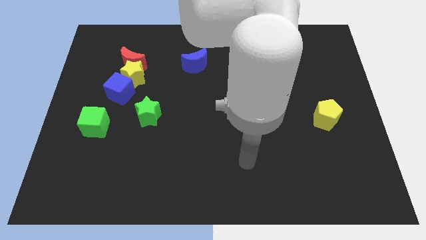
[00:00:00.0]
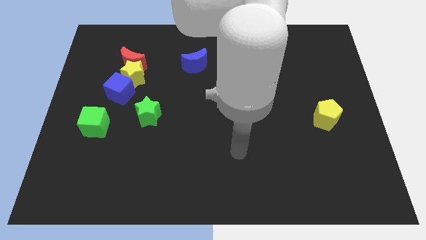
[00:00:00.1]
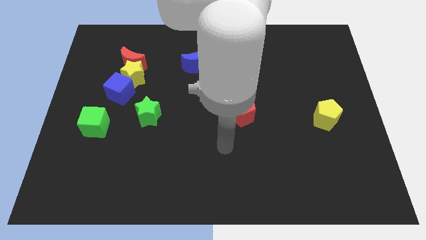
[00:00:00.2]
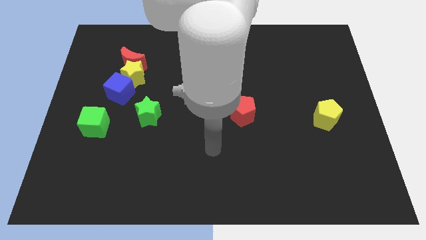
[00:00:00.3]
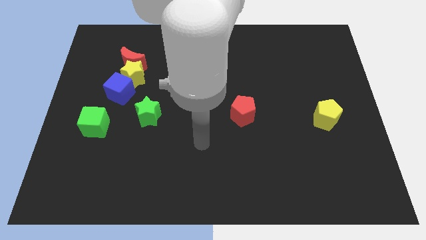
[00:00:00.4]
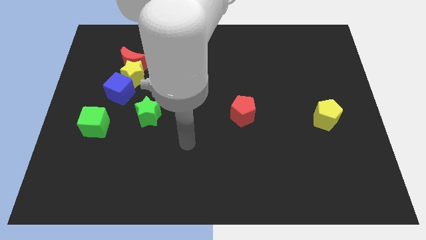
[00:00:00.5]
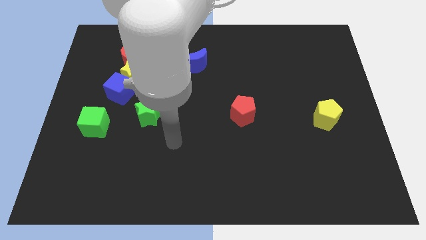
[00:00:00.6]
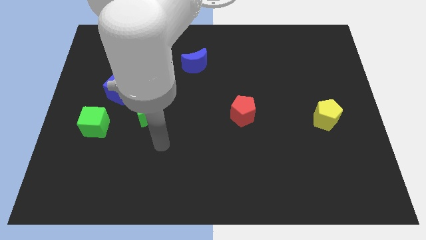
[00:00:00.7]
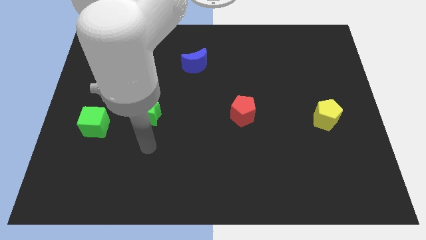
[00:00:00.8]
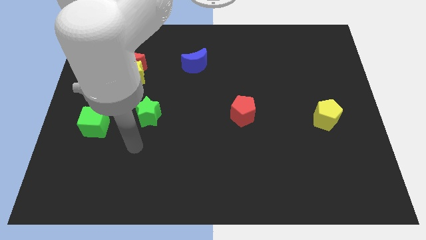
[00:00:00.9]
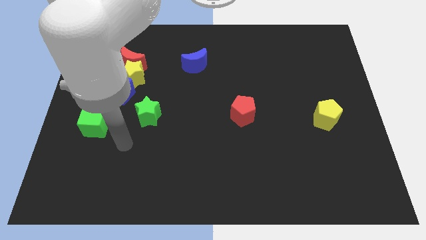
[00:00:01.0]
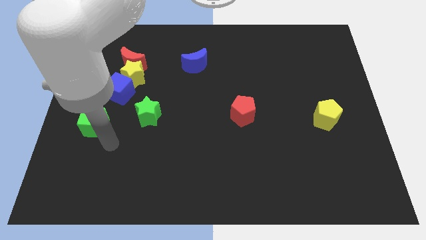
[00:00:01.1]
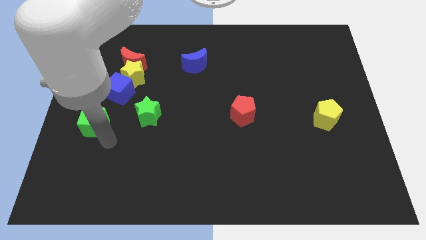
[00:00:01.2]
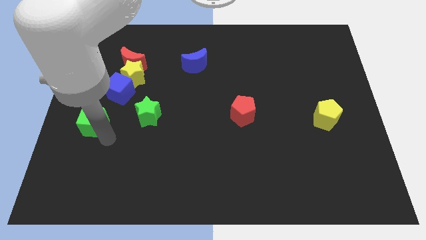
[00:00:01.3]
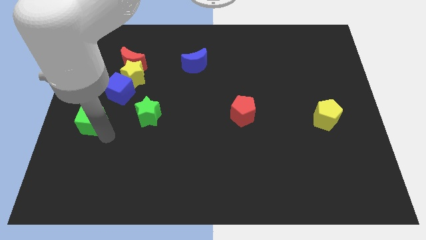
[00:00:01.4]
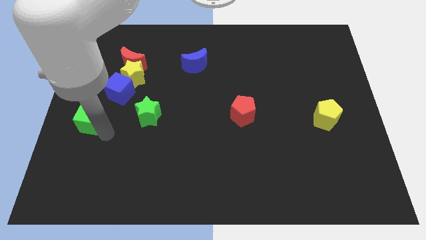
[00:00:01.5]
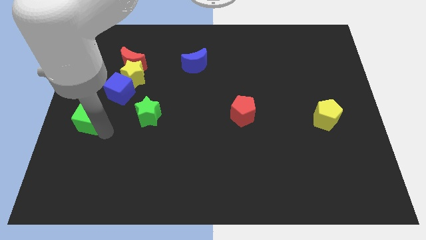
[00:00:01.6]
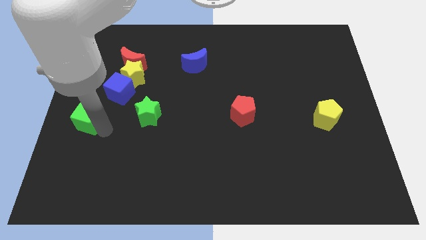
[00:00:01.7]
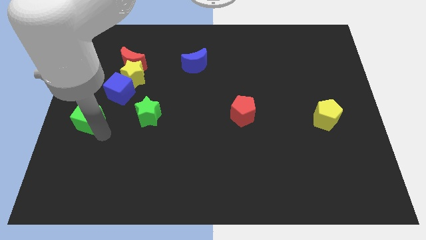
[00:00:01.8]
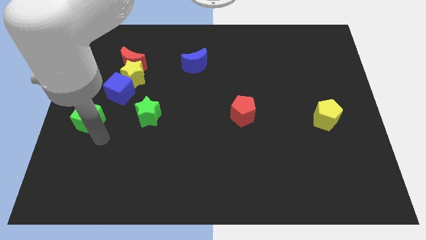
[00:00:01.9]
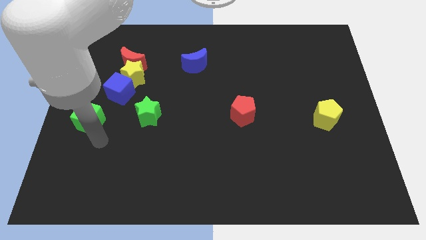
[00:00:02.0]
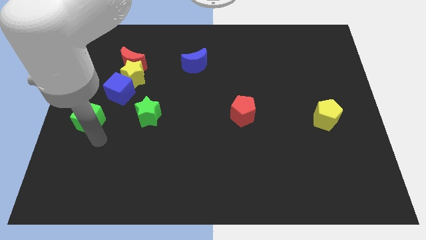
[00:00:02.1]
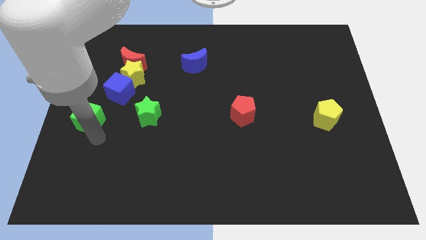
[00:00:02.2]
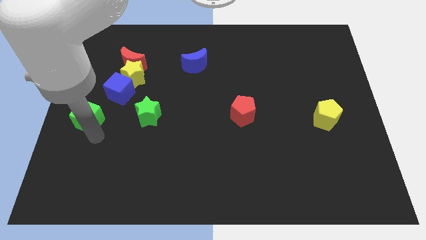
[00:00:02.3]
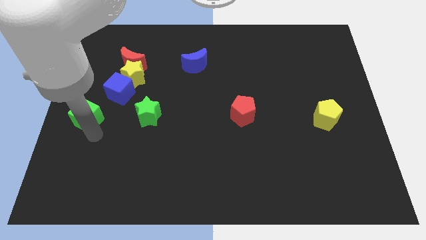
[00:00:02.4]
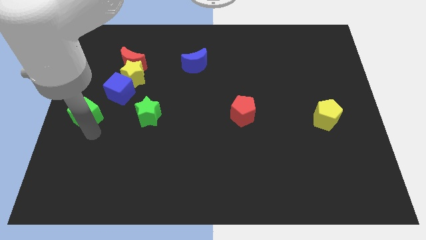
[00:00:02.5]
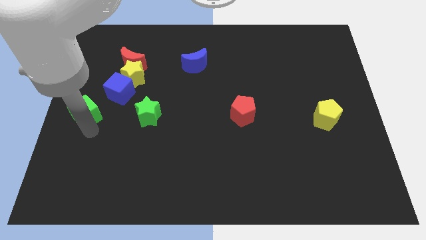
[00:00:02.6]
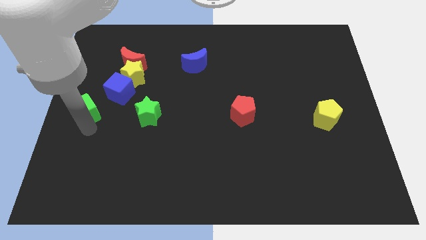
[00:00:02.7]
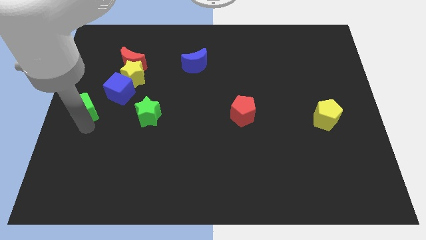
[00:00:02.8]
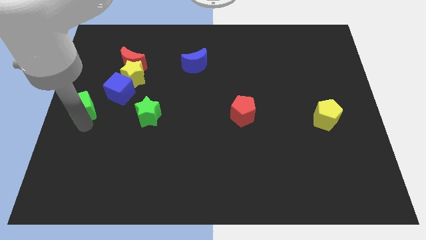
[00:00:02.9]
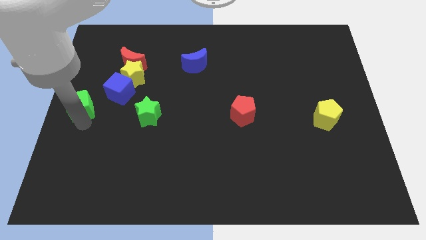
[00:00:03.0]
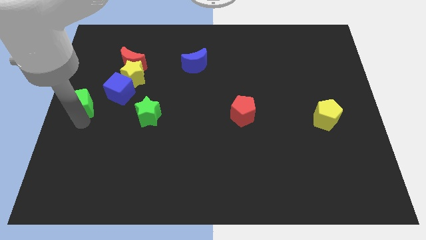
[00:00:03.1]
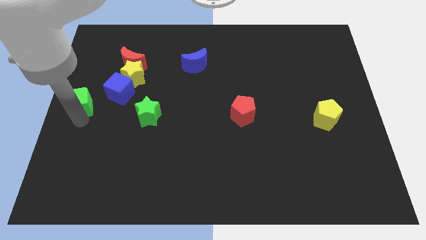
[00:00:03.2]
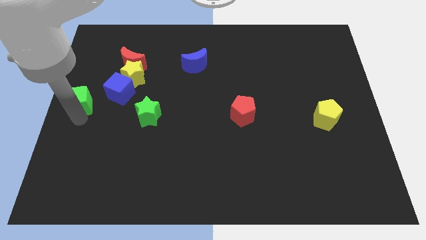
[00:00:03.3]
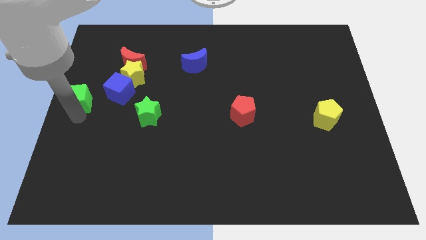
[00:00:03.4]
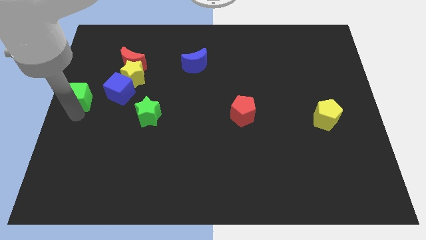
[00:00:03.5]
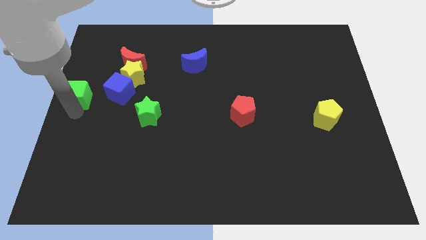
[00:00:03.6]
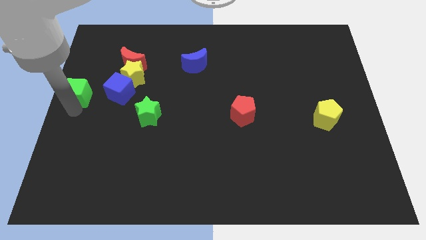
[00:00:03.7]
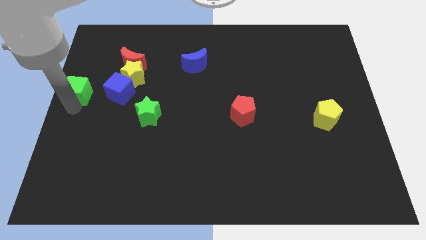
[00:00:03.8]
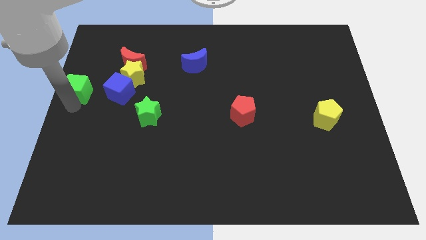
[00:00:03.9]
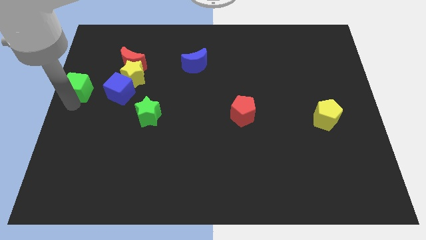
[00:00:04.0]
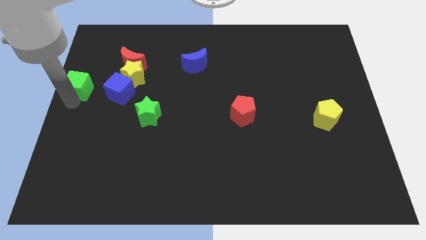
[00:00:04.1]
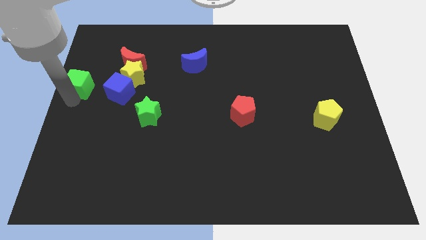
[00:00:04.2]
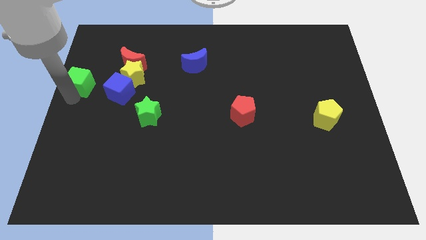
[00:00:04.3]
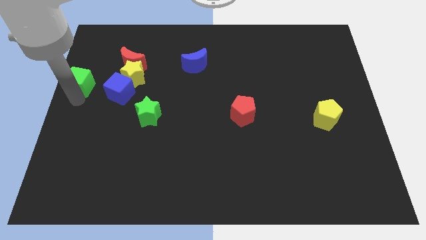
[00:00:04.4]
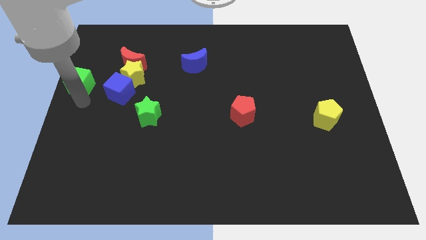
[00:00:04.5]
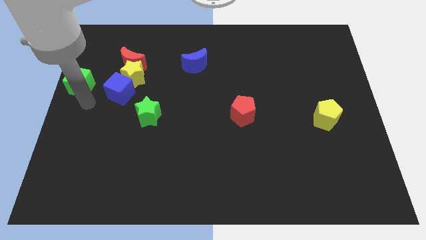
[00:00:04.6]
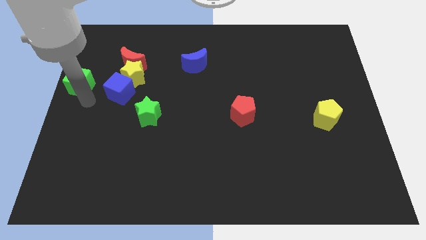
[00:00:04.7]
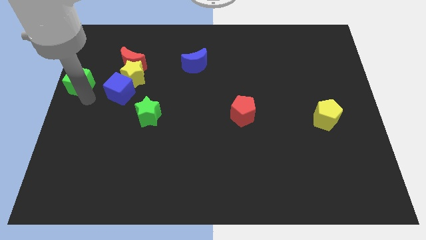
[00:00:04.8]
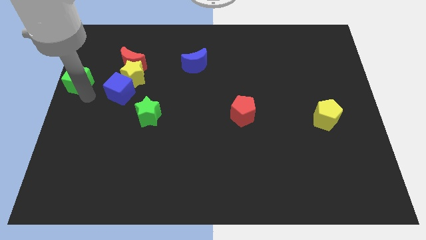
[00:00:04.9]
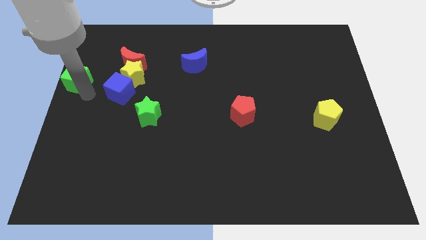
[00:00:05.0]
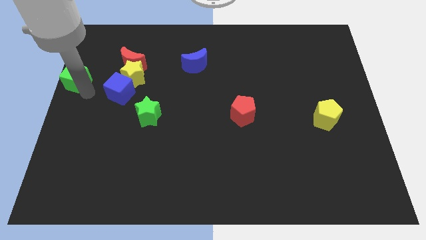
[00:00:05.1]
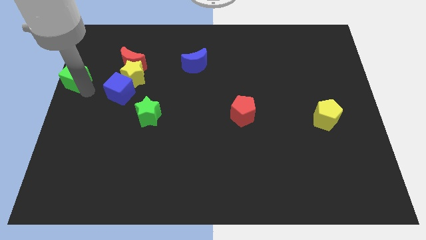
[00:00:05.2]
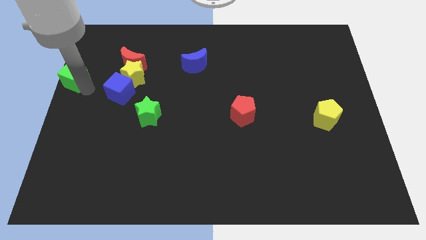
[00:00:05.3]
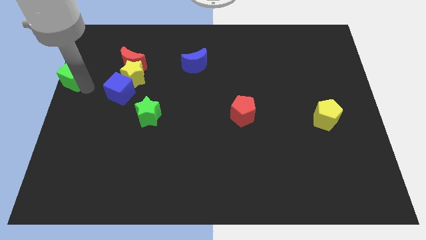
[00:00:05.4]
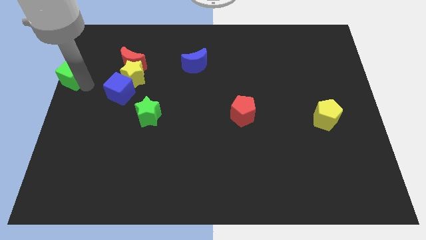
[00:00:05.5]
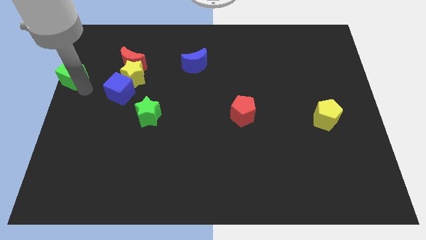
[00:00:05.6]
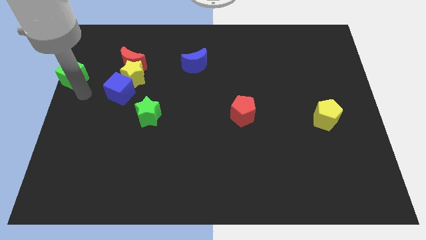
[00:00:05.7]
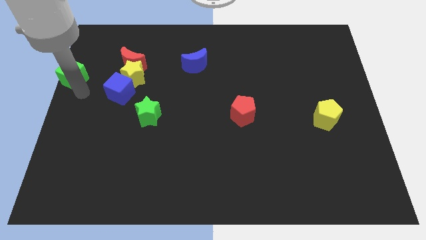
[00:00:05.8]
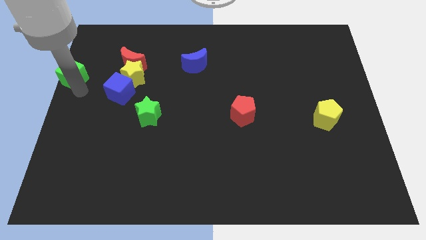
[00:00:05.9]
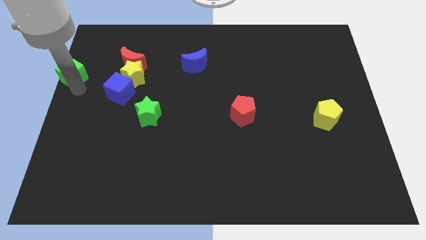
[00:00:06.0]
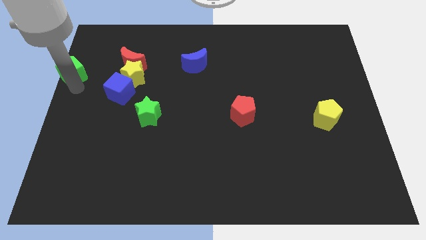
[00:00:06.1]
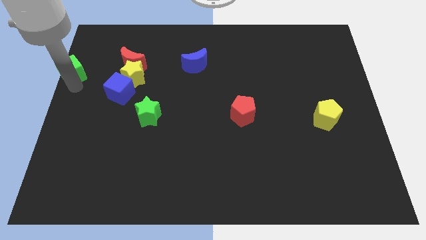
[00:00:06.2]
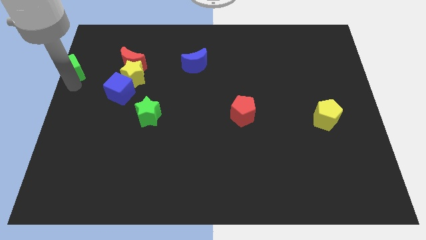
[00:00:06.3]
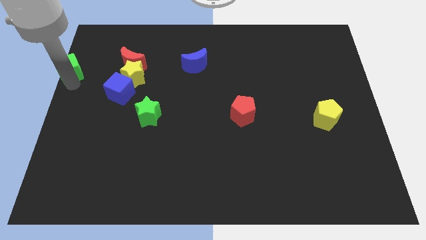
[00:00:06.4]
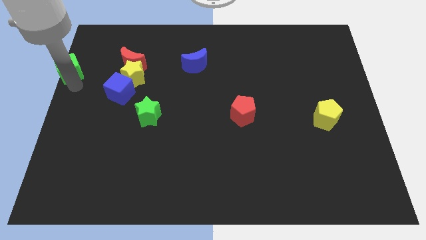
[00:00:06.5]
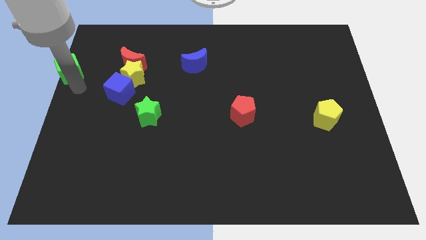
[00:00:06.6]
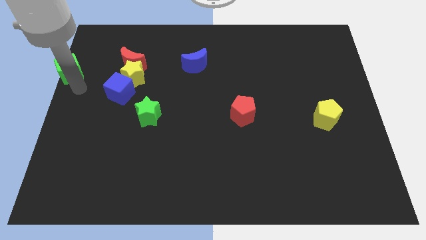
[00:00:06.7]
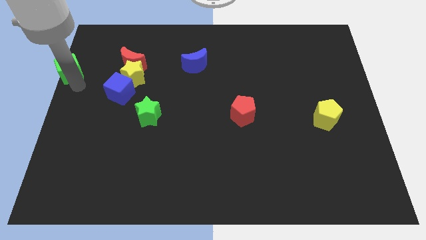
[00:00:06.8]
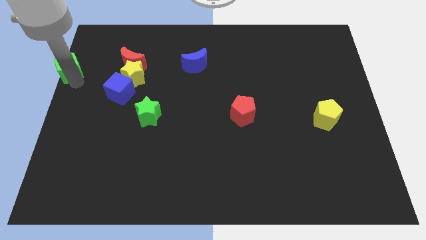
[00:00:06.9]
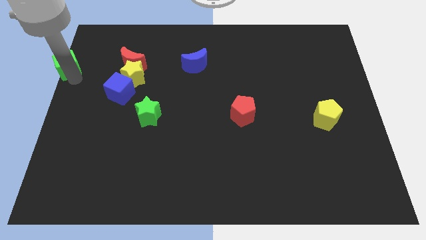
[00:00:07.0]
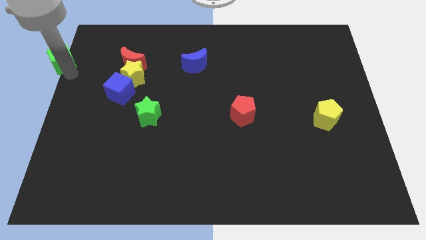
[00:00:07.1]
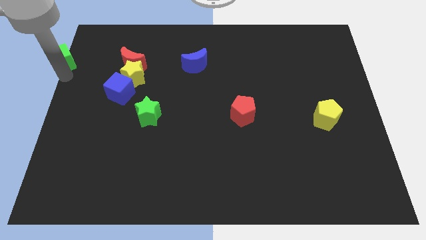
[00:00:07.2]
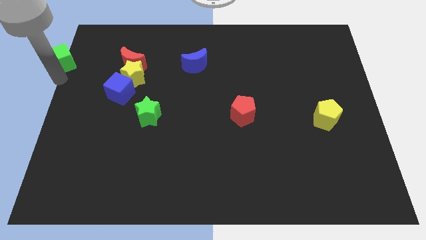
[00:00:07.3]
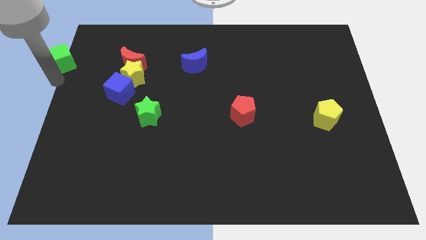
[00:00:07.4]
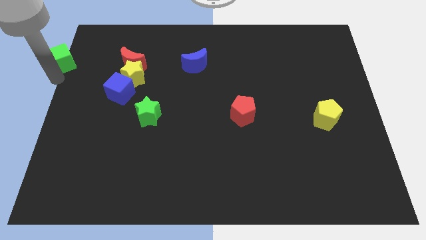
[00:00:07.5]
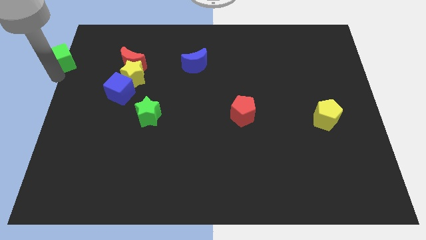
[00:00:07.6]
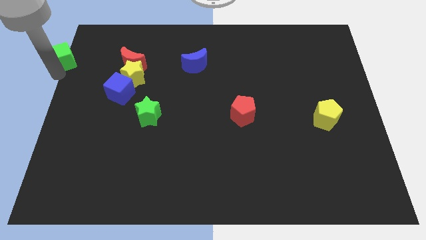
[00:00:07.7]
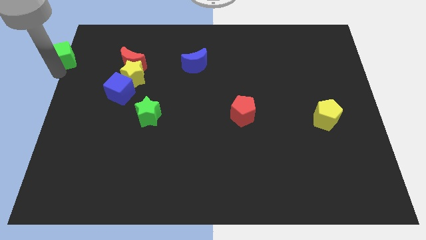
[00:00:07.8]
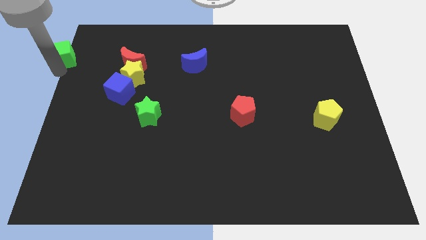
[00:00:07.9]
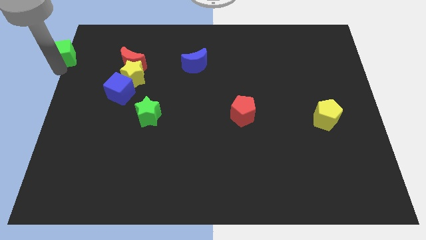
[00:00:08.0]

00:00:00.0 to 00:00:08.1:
push the green cube to the top left of the board
